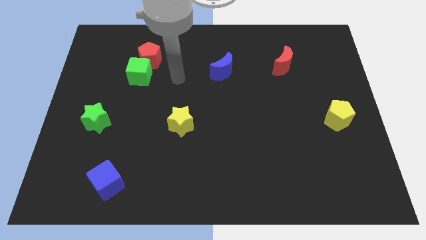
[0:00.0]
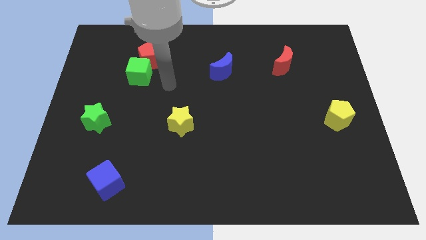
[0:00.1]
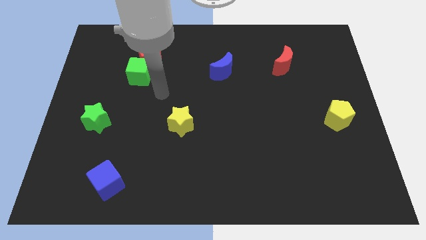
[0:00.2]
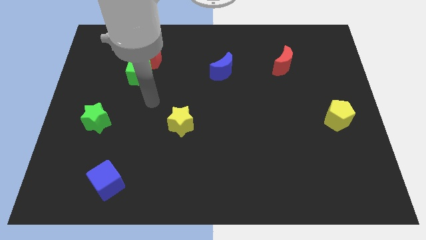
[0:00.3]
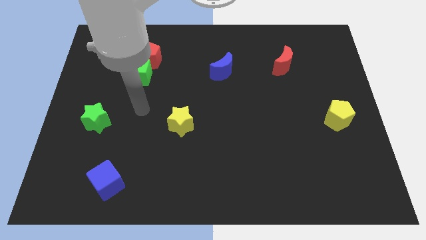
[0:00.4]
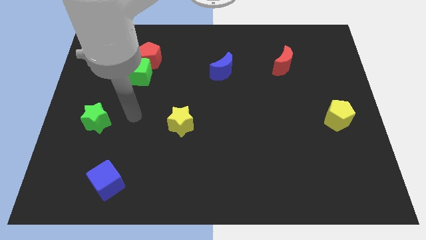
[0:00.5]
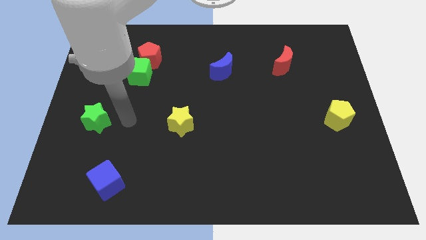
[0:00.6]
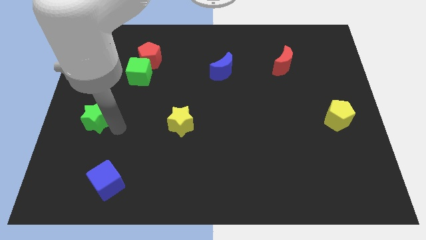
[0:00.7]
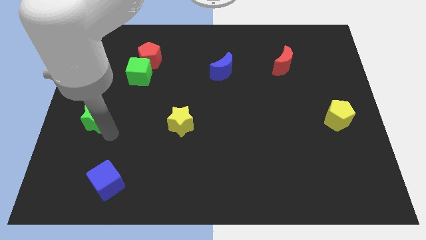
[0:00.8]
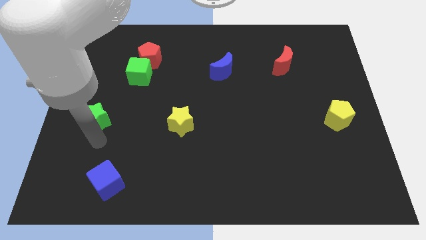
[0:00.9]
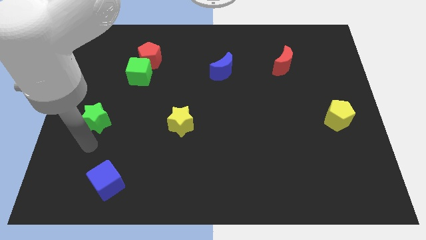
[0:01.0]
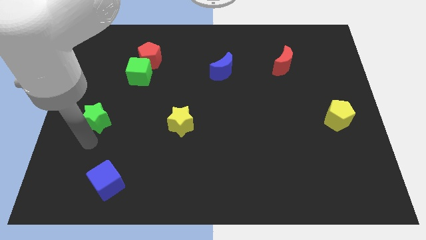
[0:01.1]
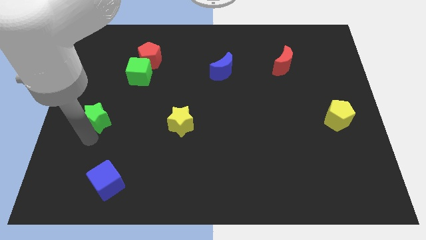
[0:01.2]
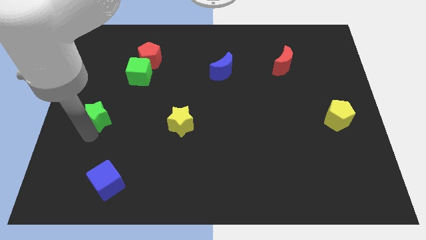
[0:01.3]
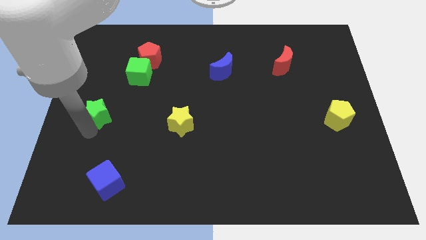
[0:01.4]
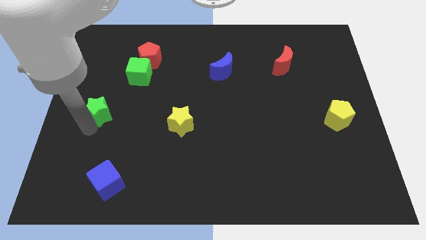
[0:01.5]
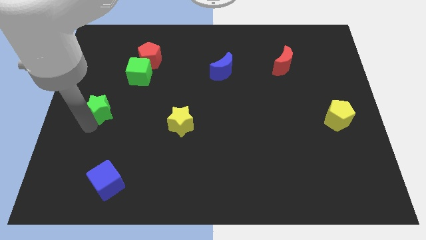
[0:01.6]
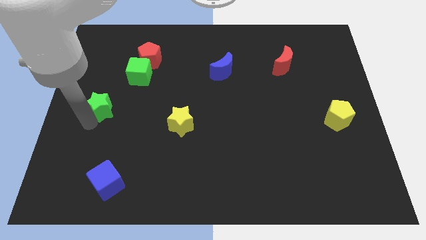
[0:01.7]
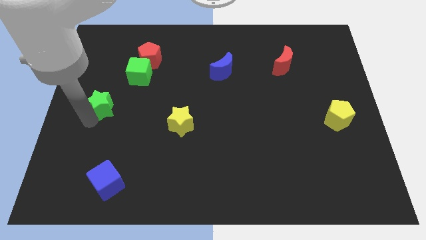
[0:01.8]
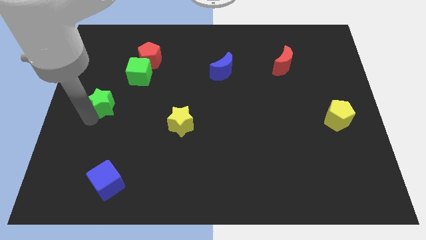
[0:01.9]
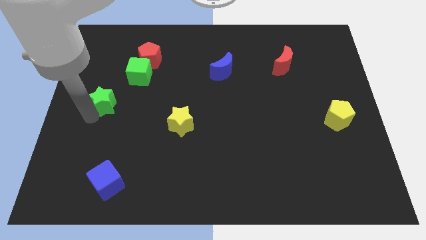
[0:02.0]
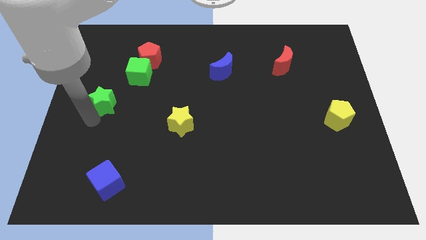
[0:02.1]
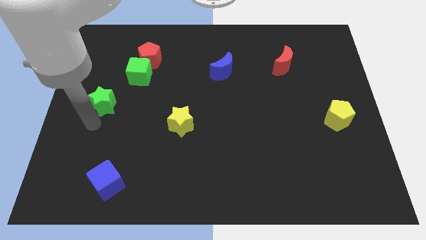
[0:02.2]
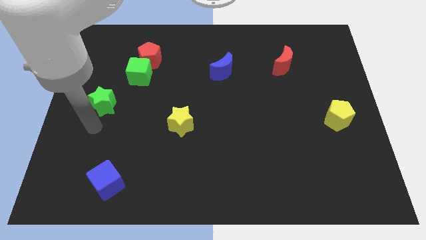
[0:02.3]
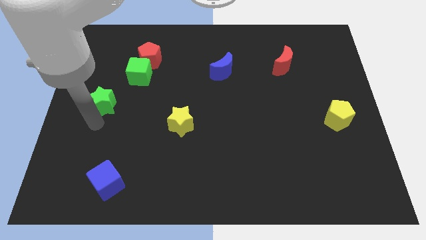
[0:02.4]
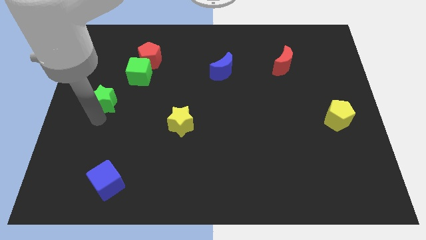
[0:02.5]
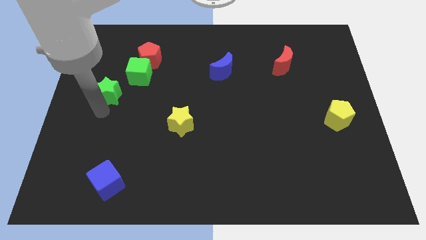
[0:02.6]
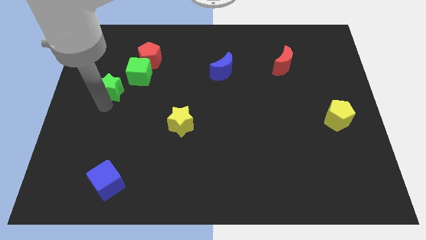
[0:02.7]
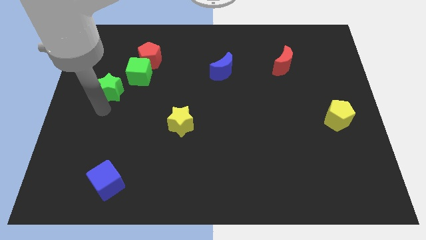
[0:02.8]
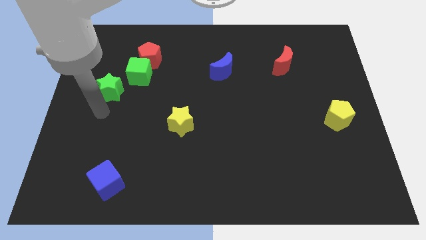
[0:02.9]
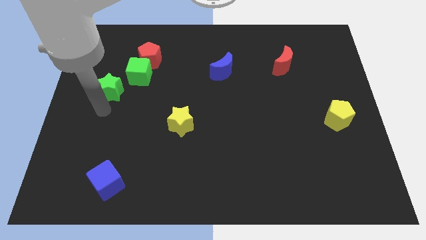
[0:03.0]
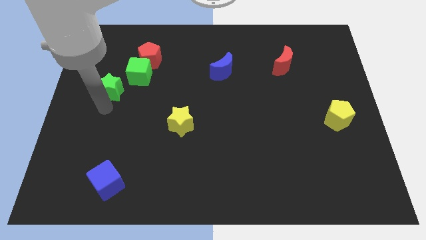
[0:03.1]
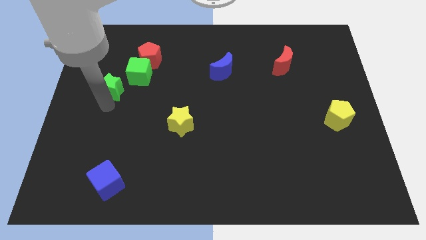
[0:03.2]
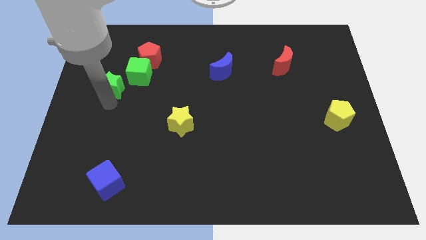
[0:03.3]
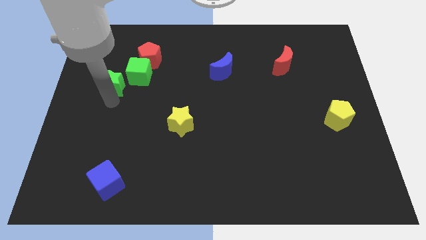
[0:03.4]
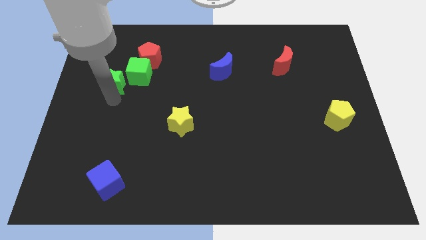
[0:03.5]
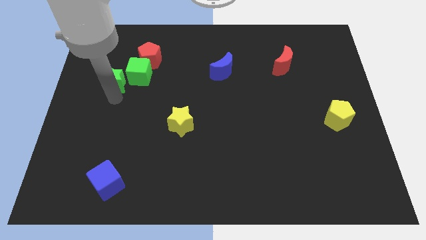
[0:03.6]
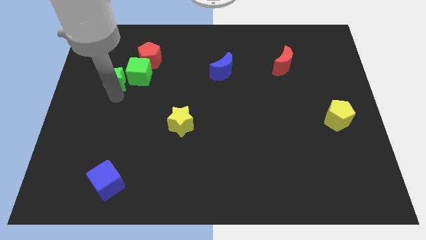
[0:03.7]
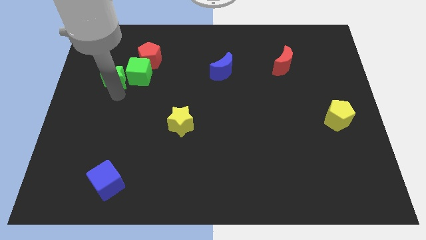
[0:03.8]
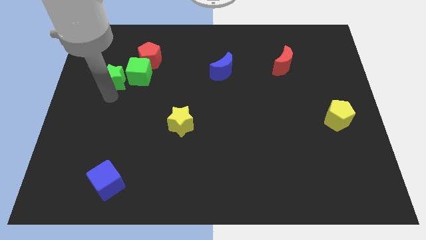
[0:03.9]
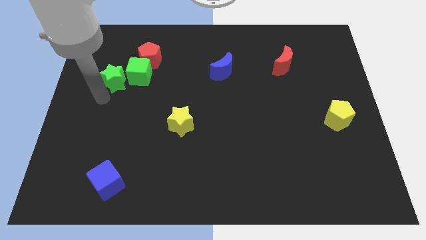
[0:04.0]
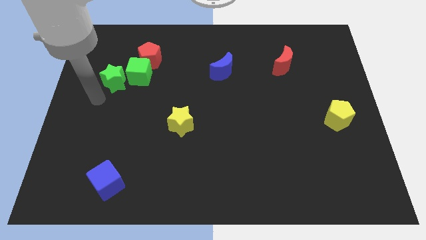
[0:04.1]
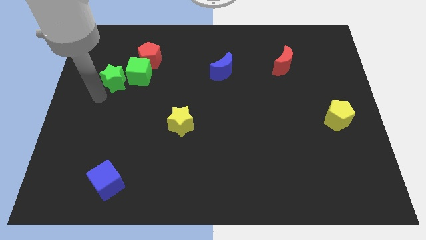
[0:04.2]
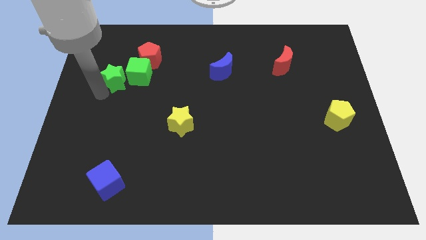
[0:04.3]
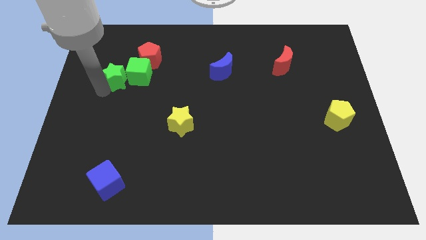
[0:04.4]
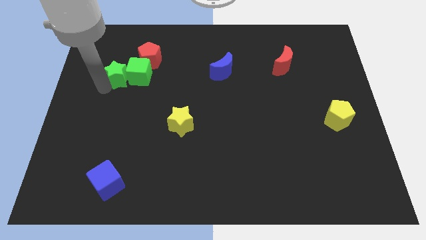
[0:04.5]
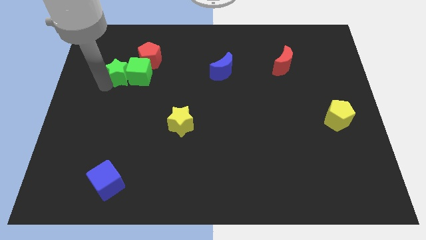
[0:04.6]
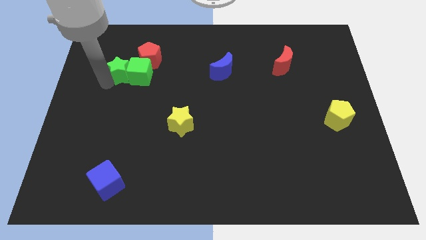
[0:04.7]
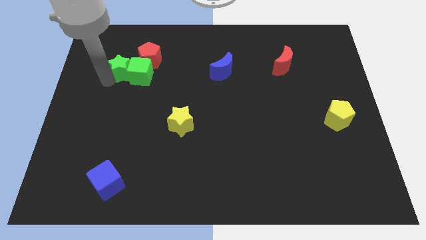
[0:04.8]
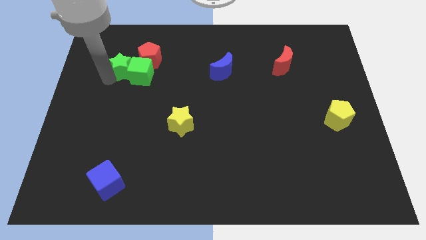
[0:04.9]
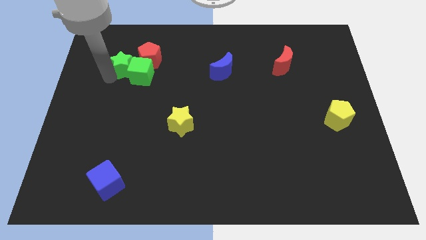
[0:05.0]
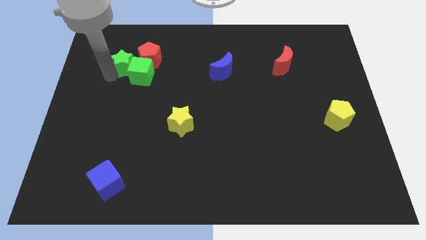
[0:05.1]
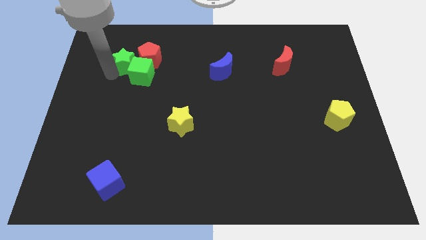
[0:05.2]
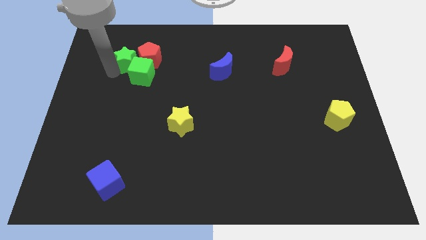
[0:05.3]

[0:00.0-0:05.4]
slide the green star to the red pentagon

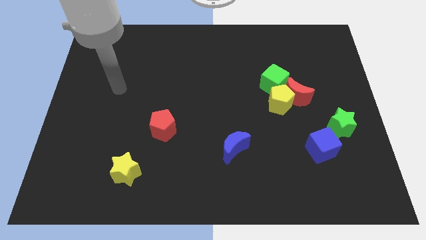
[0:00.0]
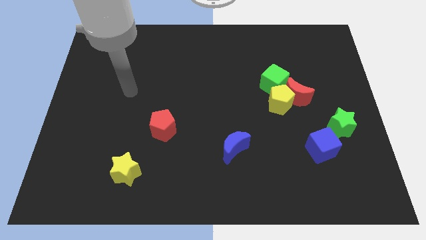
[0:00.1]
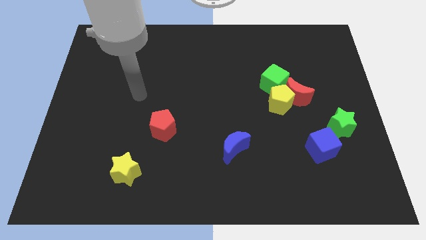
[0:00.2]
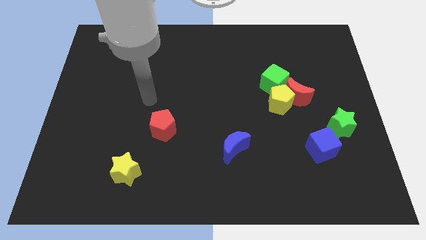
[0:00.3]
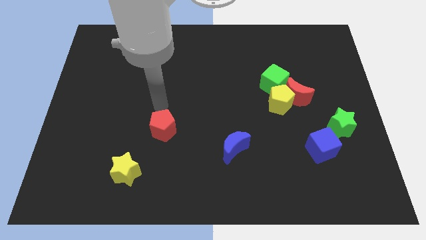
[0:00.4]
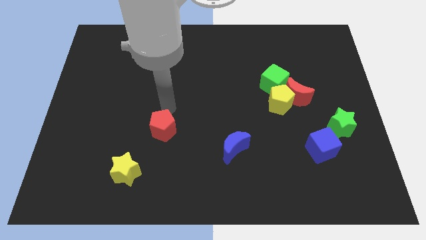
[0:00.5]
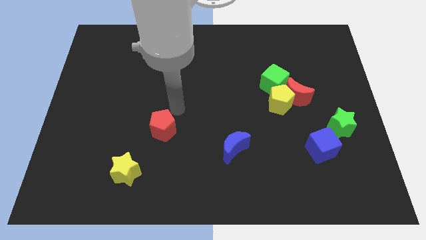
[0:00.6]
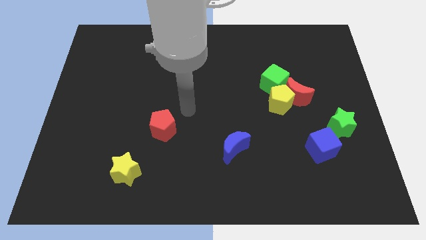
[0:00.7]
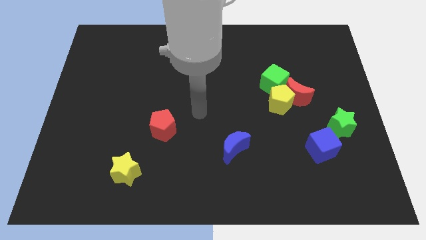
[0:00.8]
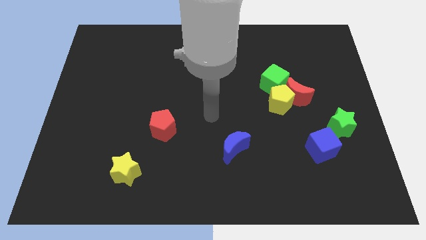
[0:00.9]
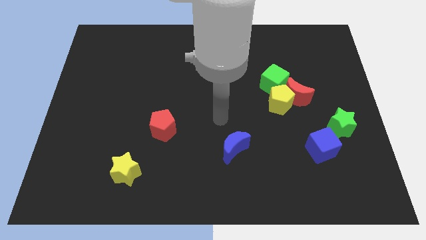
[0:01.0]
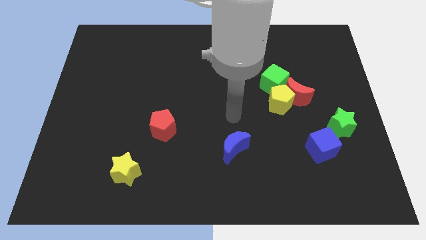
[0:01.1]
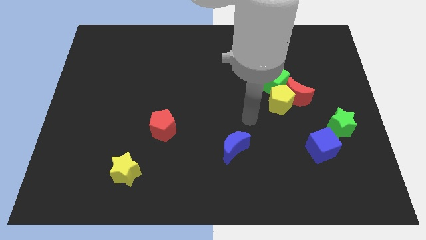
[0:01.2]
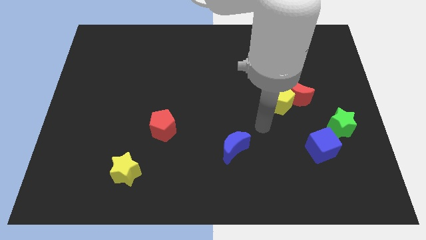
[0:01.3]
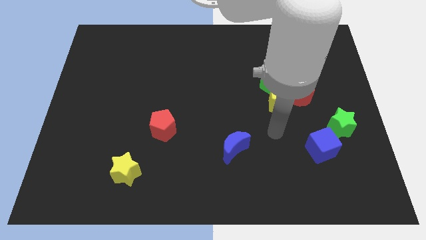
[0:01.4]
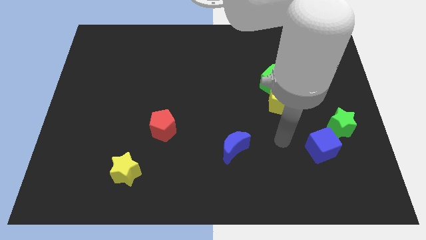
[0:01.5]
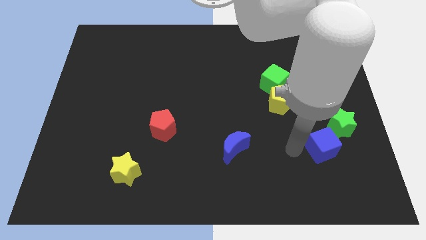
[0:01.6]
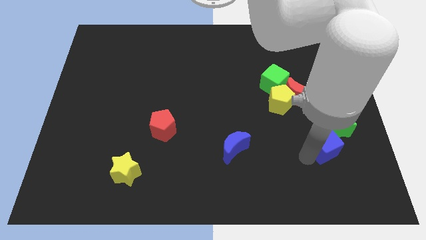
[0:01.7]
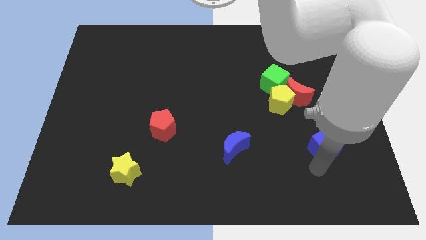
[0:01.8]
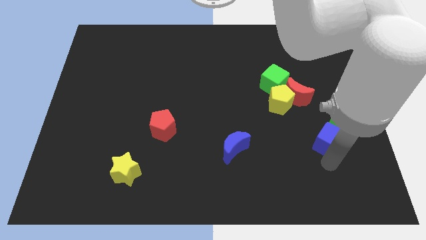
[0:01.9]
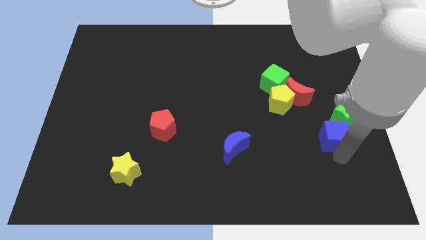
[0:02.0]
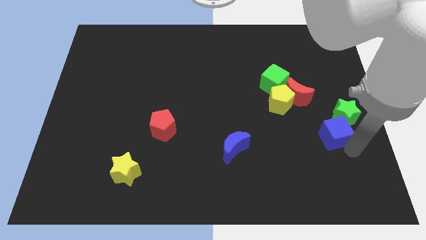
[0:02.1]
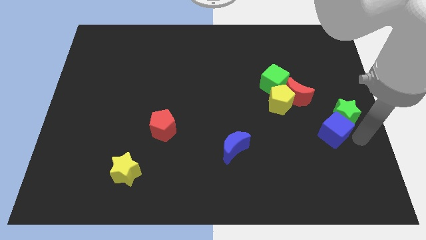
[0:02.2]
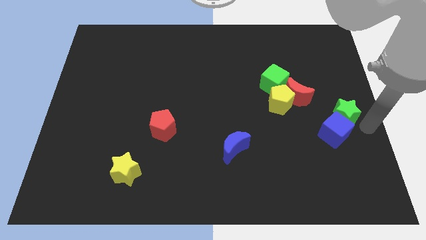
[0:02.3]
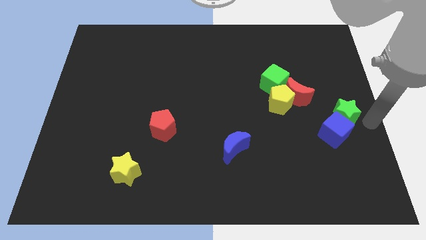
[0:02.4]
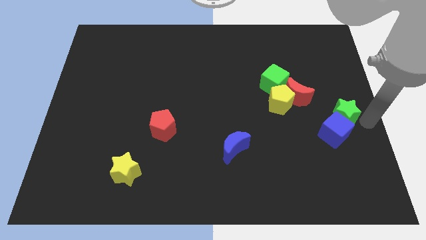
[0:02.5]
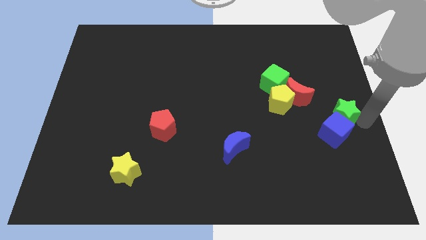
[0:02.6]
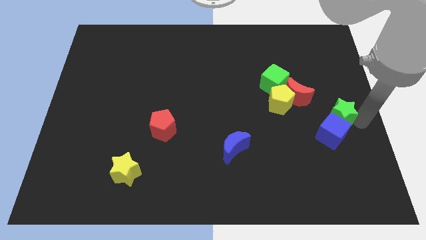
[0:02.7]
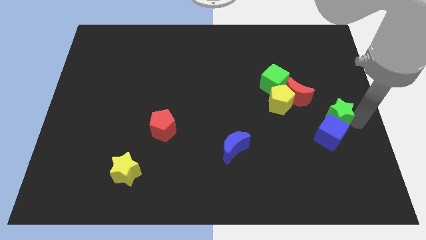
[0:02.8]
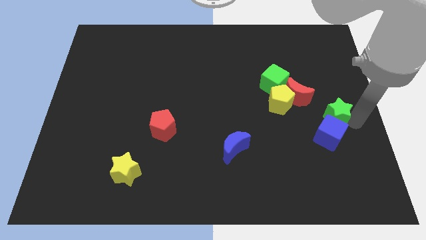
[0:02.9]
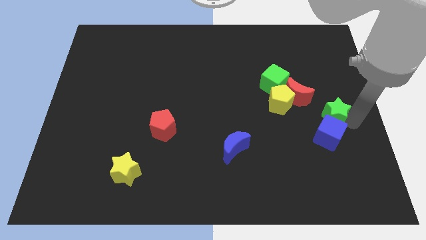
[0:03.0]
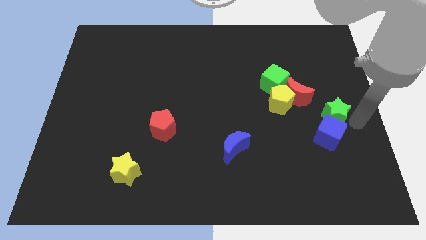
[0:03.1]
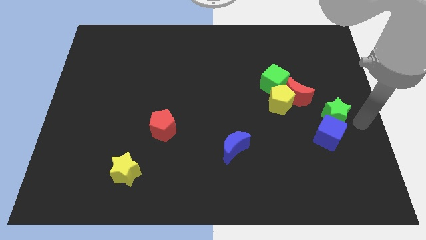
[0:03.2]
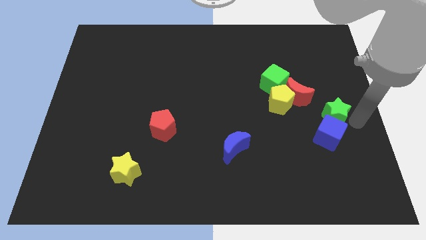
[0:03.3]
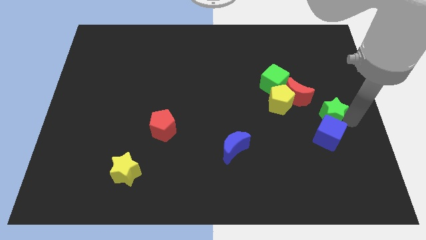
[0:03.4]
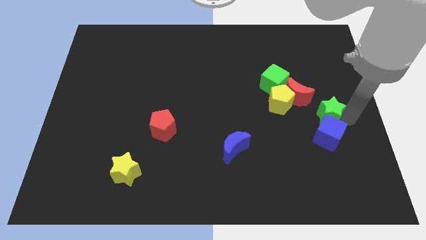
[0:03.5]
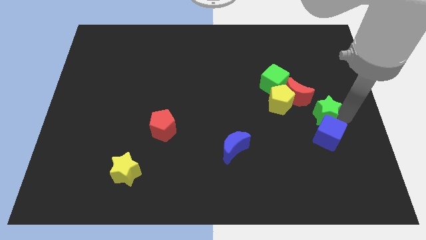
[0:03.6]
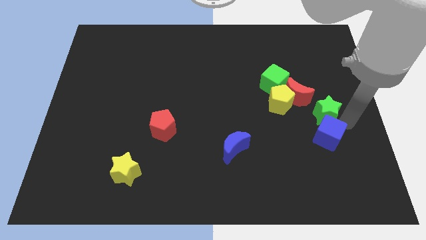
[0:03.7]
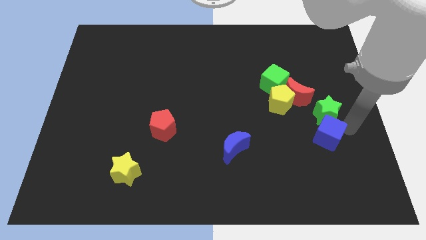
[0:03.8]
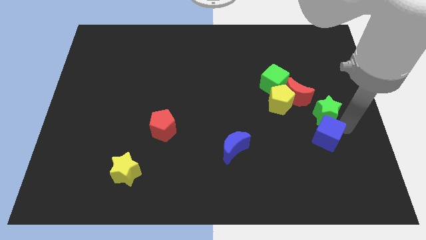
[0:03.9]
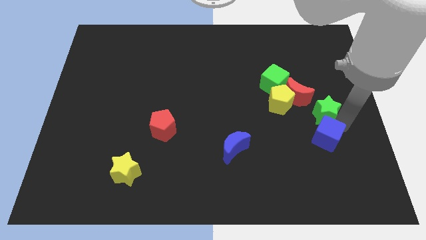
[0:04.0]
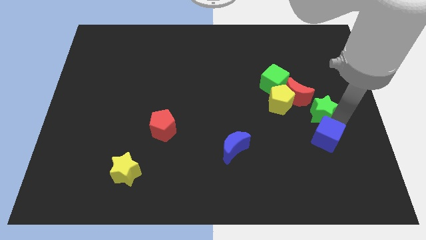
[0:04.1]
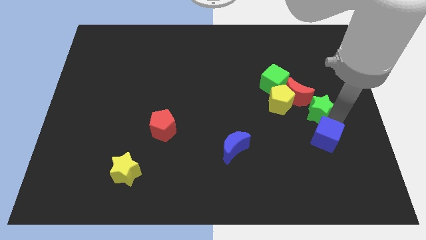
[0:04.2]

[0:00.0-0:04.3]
move the green star close to the red moon
